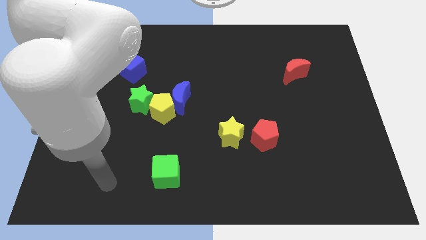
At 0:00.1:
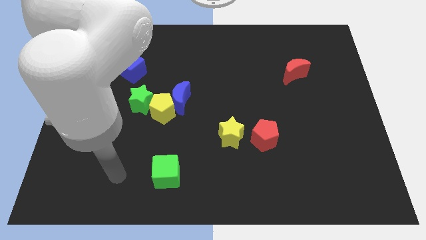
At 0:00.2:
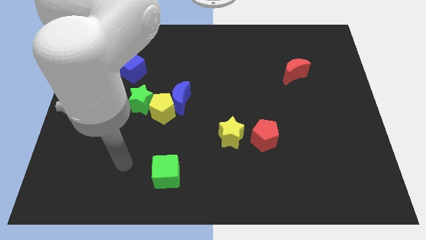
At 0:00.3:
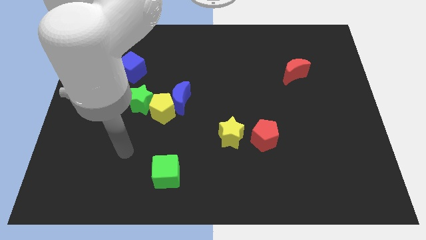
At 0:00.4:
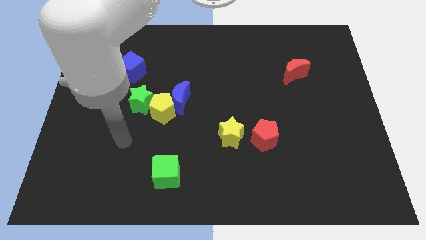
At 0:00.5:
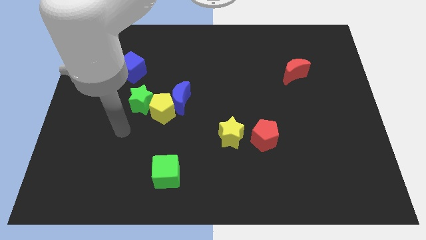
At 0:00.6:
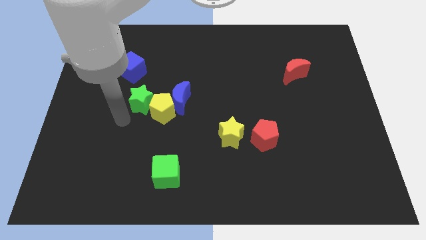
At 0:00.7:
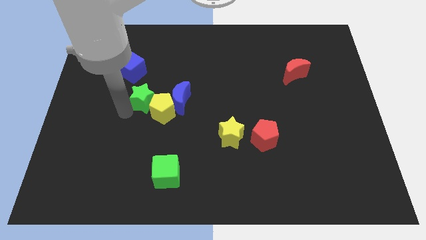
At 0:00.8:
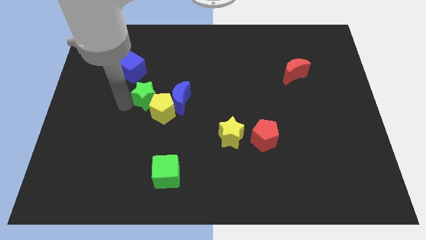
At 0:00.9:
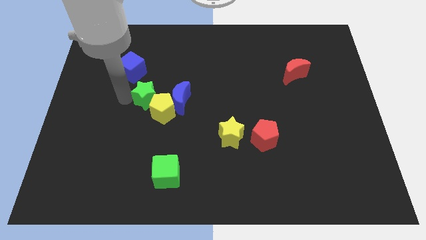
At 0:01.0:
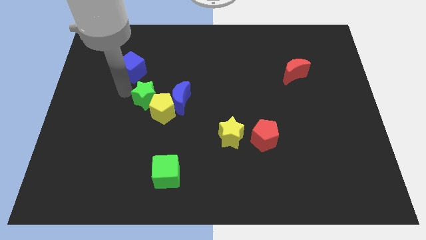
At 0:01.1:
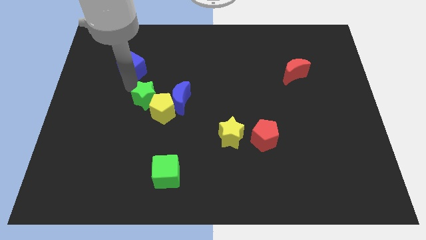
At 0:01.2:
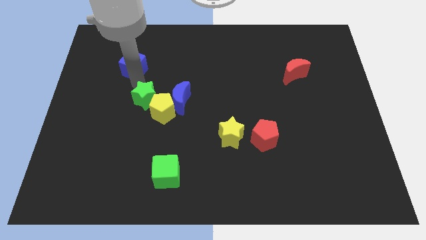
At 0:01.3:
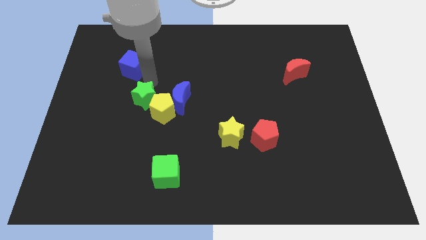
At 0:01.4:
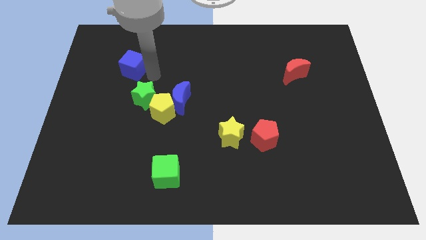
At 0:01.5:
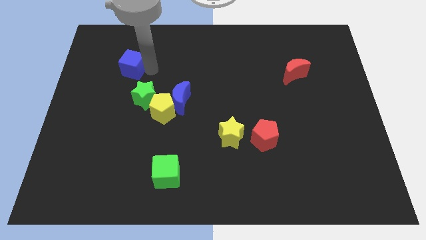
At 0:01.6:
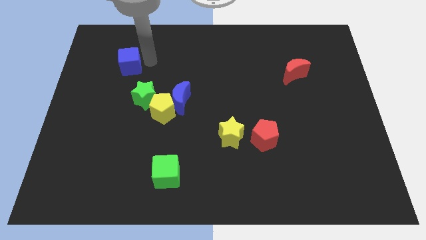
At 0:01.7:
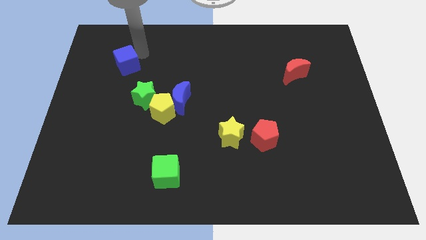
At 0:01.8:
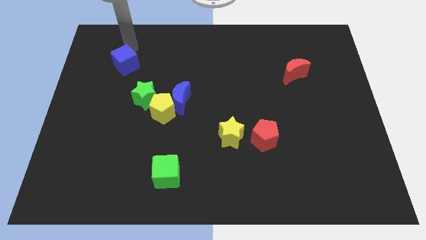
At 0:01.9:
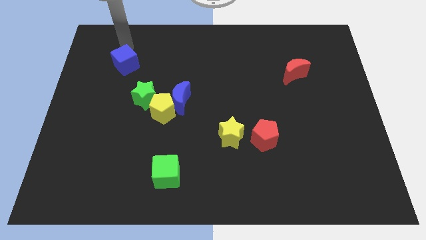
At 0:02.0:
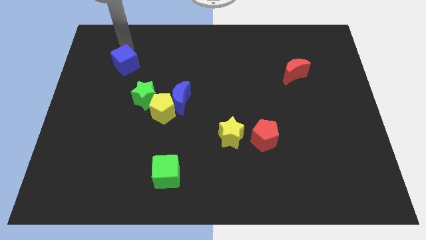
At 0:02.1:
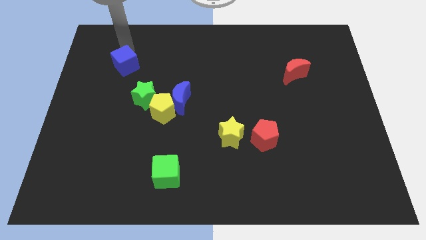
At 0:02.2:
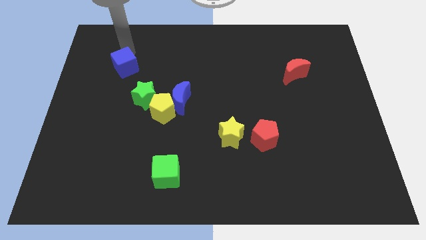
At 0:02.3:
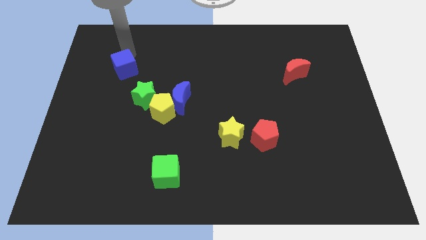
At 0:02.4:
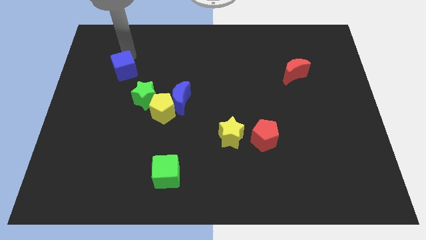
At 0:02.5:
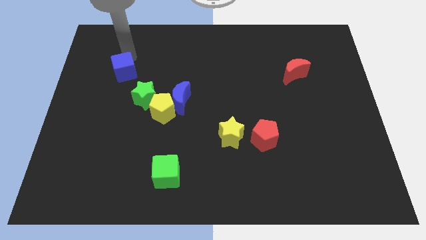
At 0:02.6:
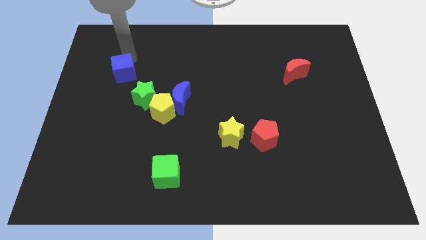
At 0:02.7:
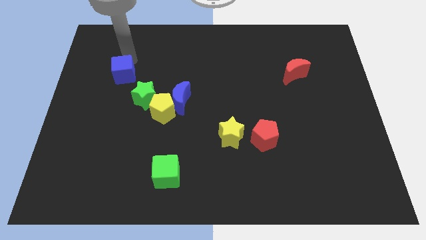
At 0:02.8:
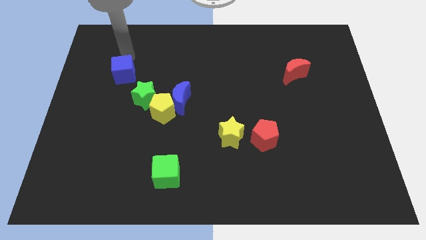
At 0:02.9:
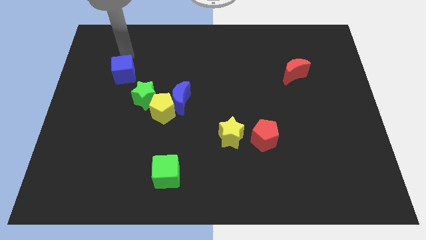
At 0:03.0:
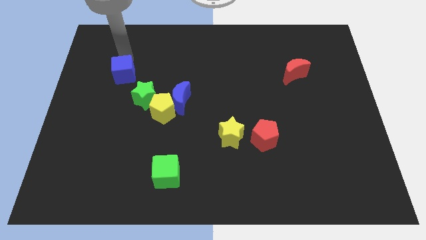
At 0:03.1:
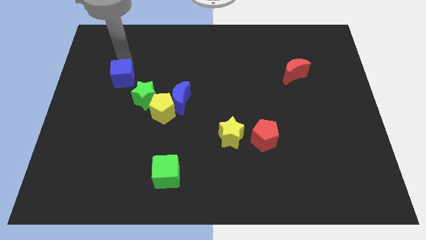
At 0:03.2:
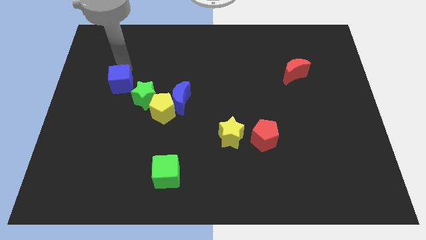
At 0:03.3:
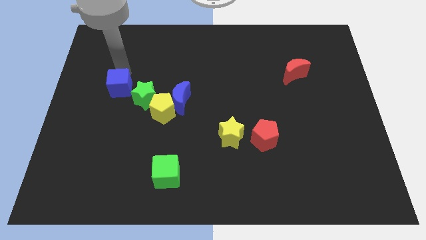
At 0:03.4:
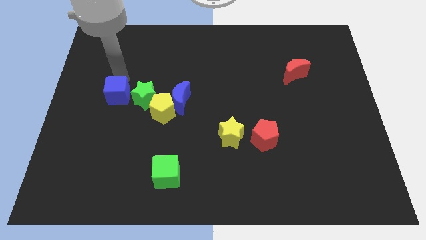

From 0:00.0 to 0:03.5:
slightly move the blue cube down

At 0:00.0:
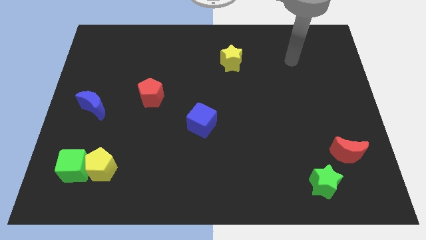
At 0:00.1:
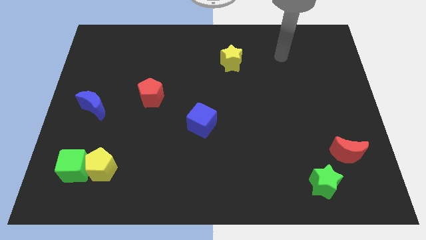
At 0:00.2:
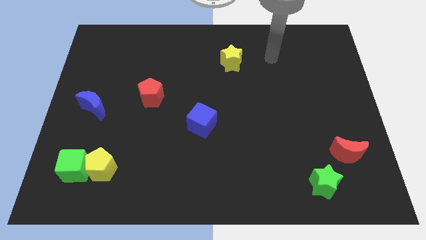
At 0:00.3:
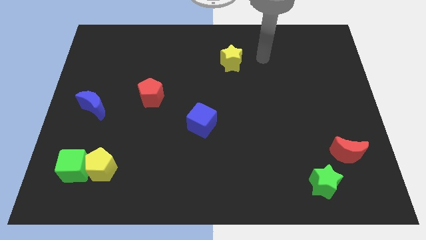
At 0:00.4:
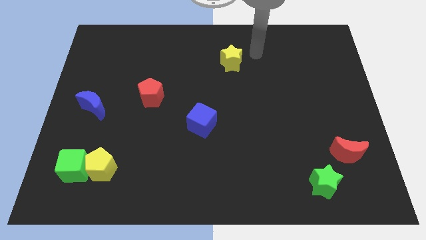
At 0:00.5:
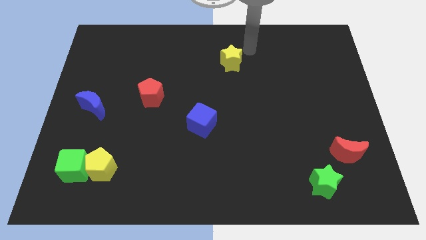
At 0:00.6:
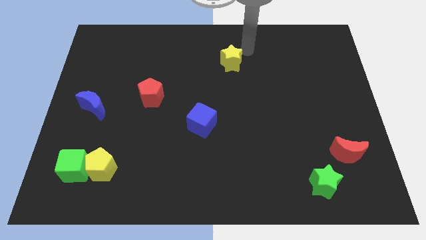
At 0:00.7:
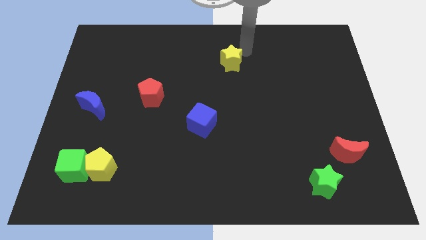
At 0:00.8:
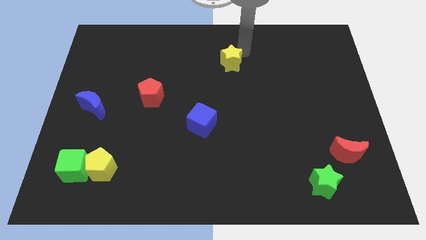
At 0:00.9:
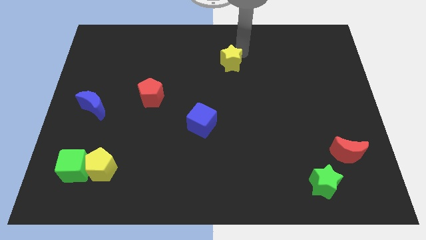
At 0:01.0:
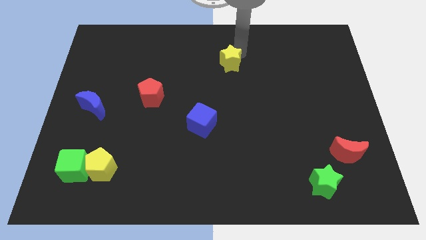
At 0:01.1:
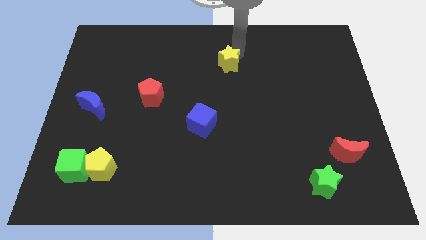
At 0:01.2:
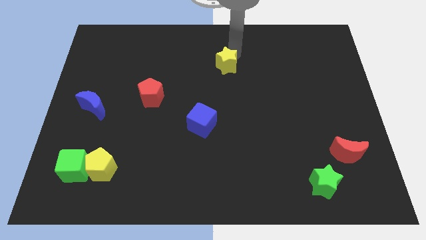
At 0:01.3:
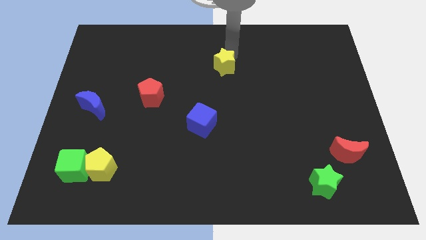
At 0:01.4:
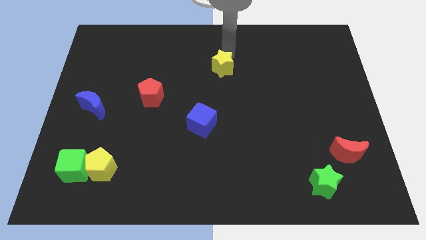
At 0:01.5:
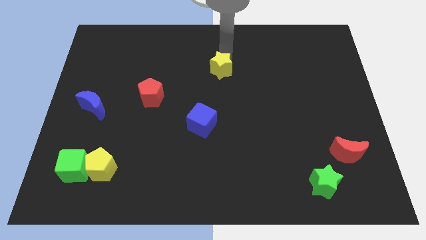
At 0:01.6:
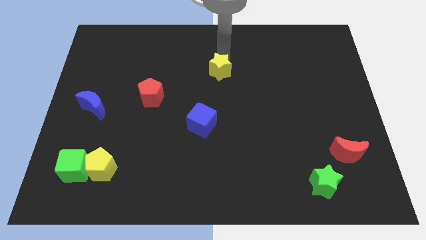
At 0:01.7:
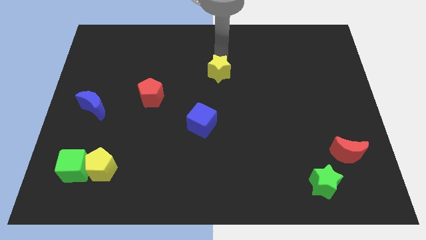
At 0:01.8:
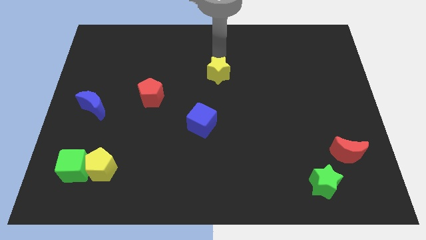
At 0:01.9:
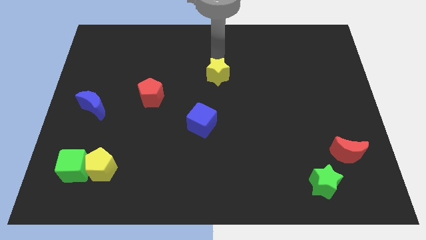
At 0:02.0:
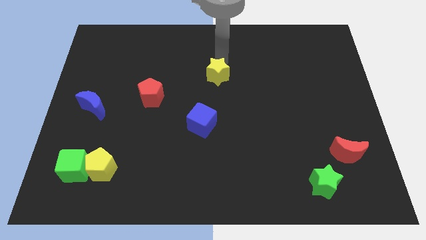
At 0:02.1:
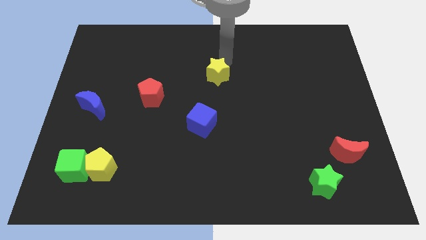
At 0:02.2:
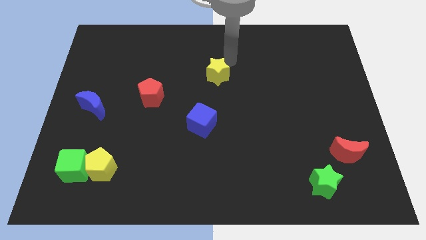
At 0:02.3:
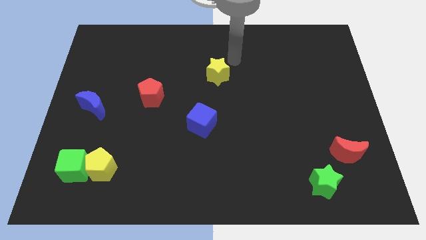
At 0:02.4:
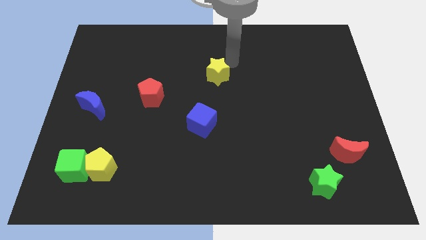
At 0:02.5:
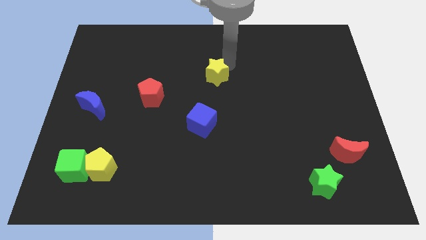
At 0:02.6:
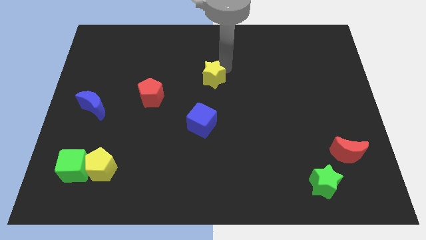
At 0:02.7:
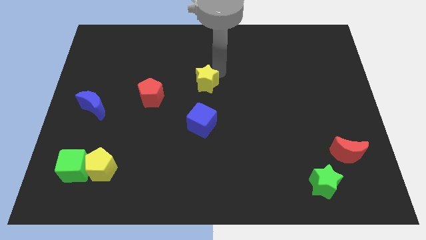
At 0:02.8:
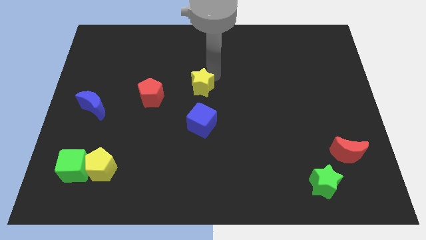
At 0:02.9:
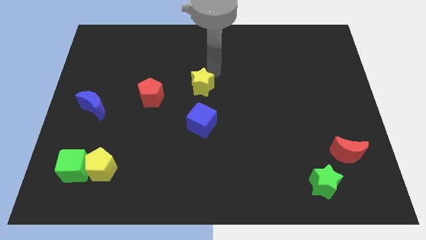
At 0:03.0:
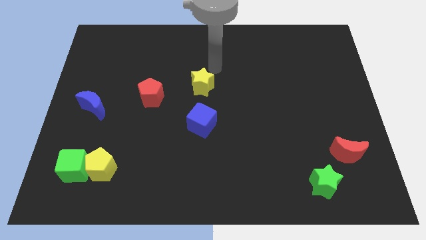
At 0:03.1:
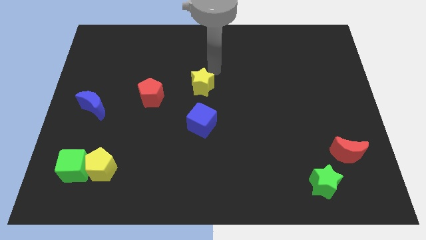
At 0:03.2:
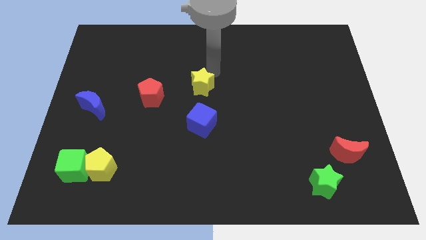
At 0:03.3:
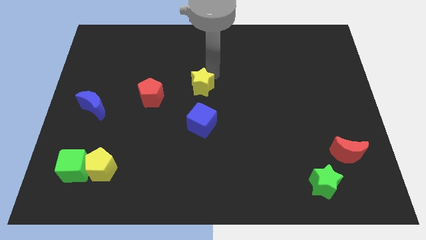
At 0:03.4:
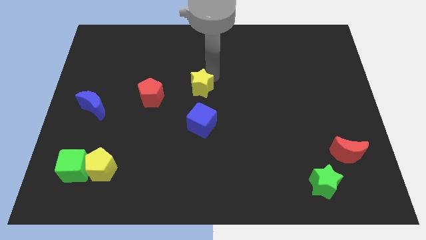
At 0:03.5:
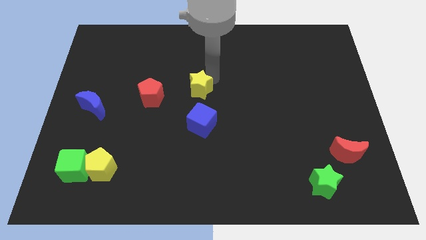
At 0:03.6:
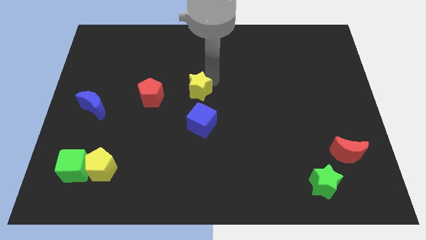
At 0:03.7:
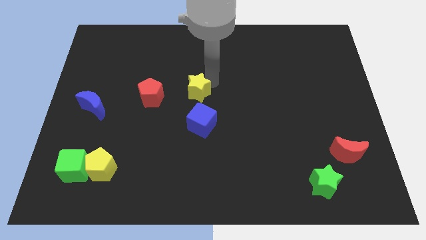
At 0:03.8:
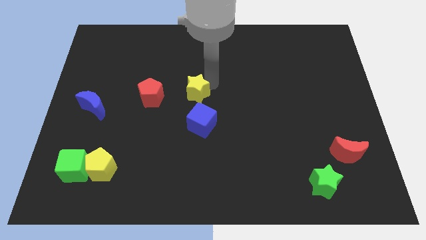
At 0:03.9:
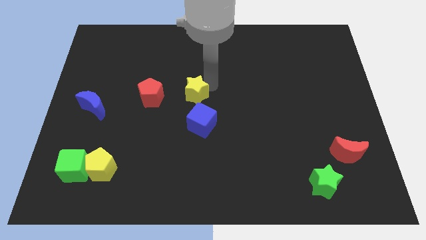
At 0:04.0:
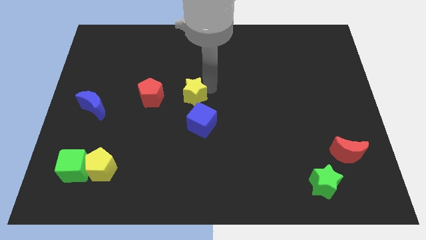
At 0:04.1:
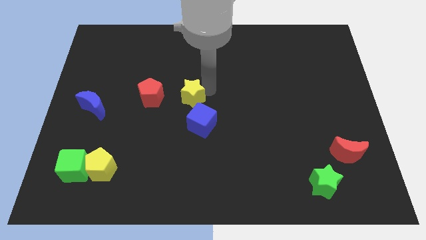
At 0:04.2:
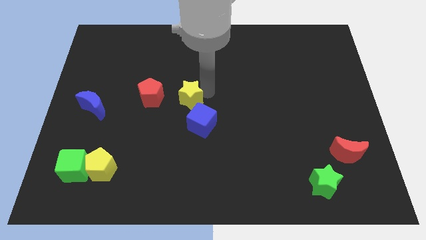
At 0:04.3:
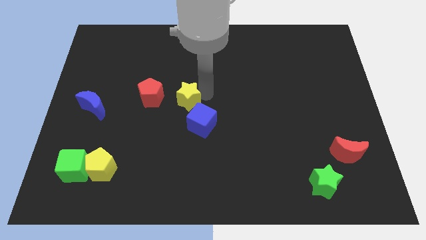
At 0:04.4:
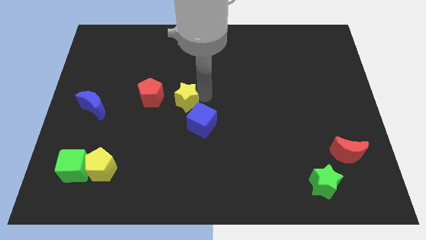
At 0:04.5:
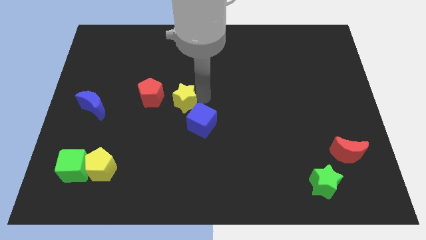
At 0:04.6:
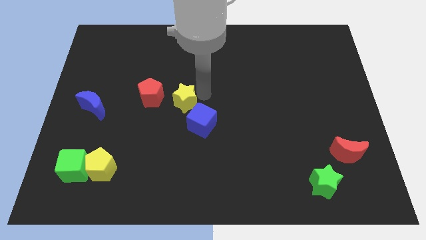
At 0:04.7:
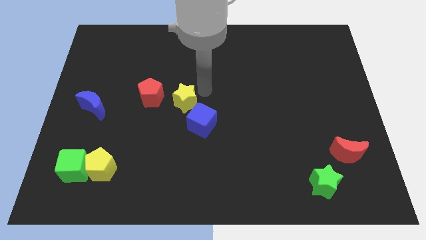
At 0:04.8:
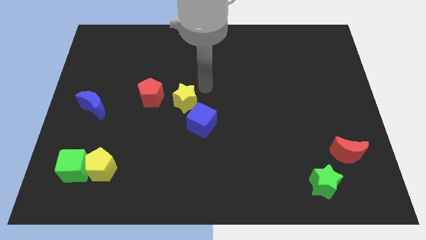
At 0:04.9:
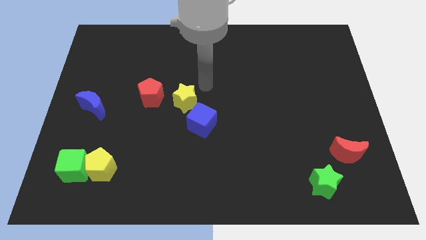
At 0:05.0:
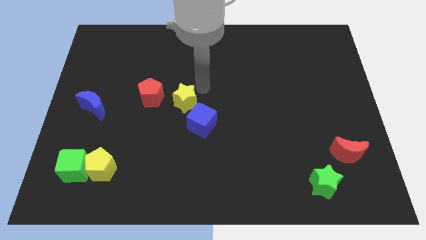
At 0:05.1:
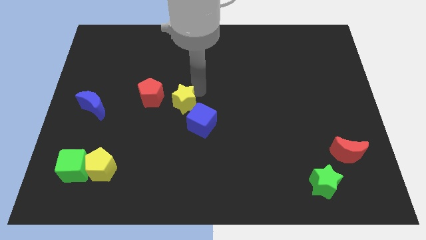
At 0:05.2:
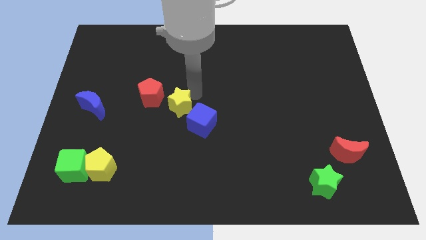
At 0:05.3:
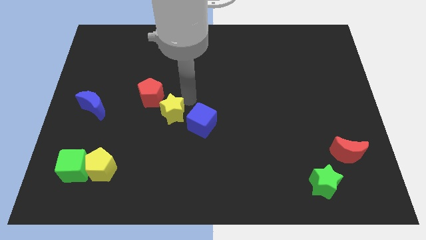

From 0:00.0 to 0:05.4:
slide the yellow star down and left diagonally
